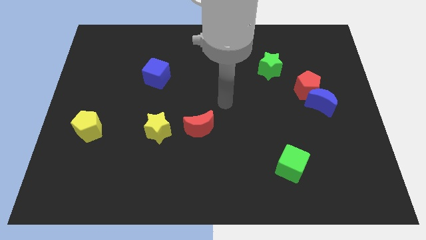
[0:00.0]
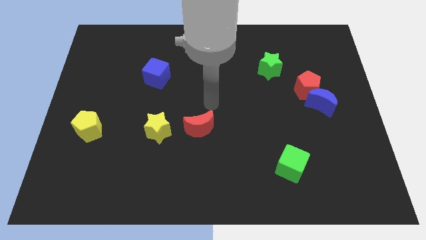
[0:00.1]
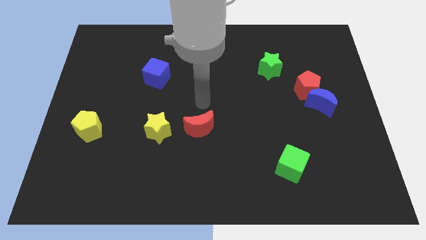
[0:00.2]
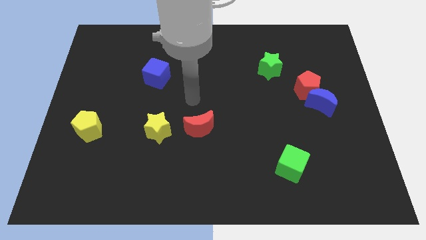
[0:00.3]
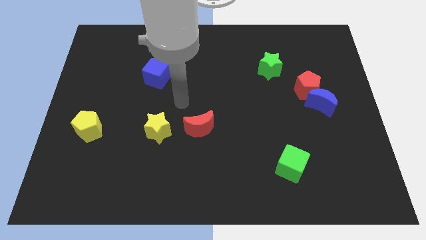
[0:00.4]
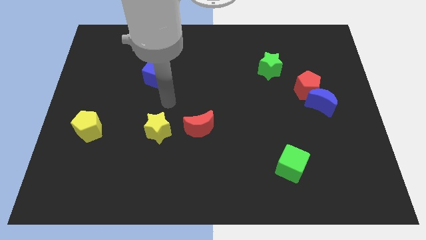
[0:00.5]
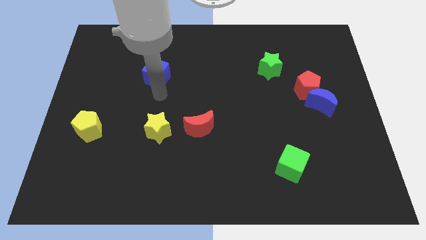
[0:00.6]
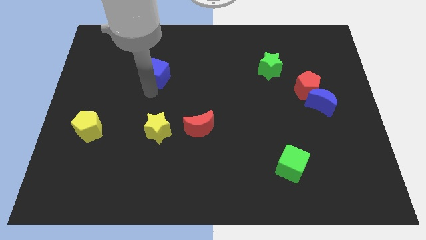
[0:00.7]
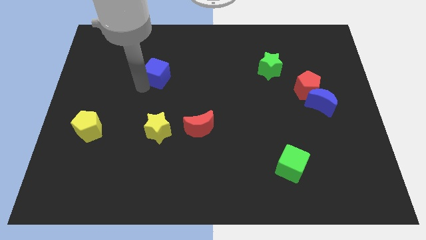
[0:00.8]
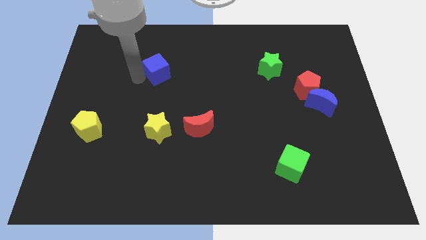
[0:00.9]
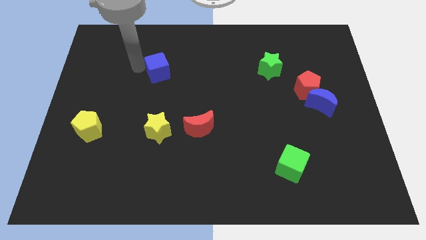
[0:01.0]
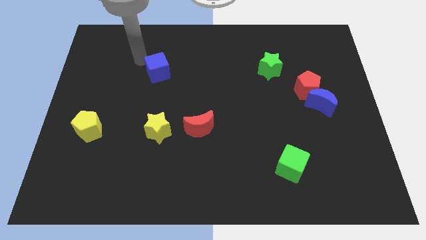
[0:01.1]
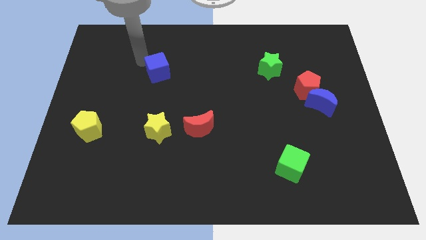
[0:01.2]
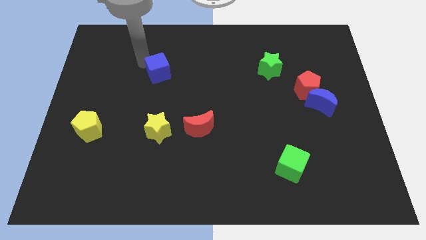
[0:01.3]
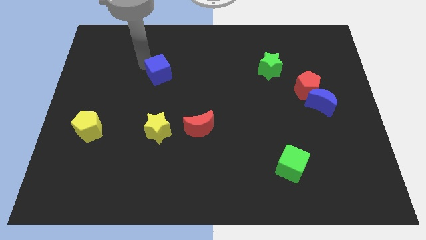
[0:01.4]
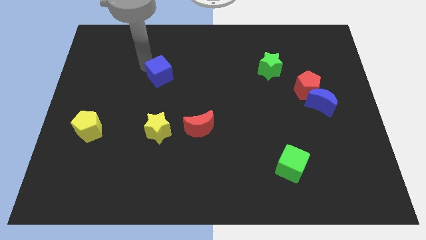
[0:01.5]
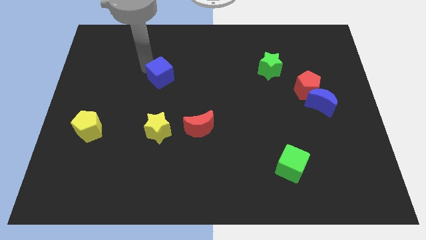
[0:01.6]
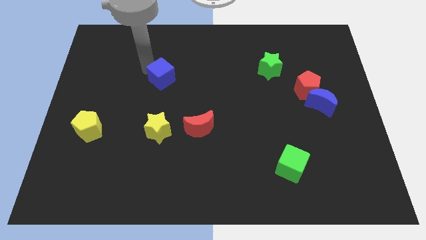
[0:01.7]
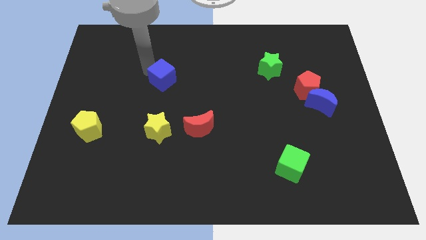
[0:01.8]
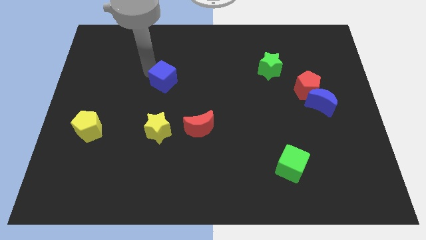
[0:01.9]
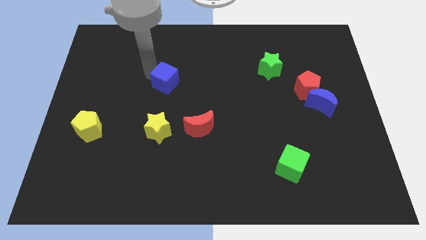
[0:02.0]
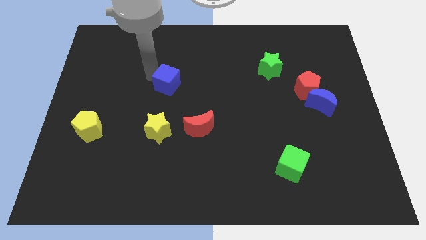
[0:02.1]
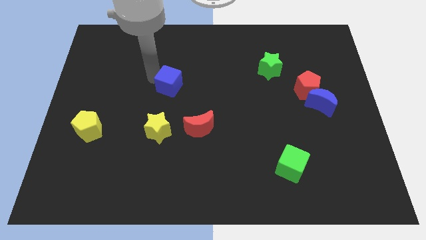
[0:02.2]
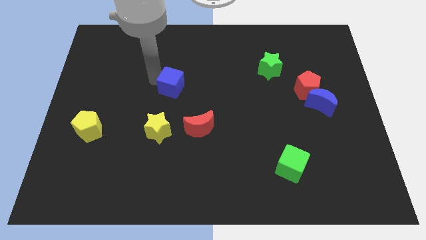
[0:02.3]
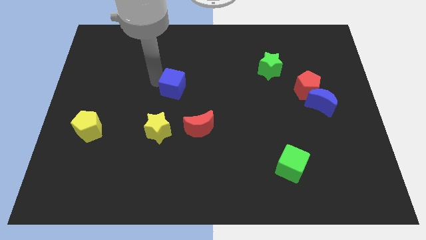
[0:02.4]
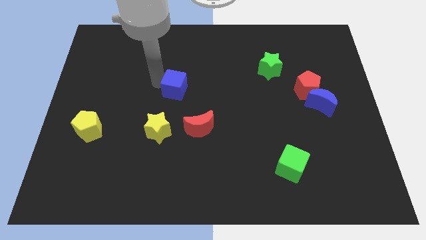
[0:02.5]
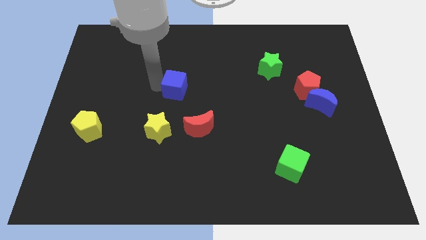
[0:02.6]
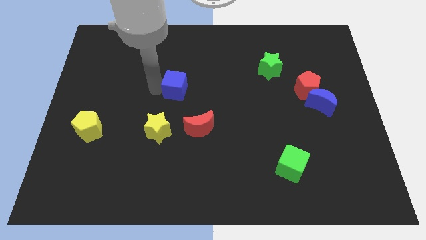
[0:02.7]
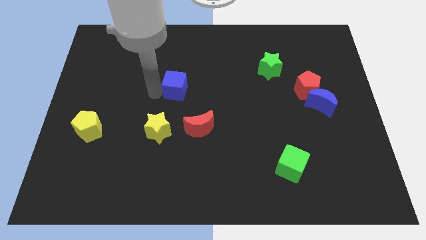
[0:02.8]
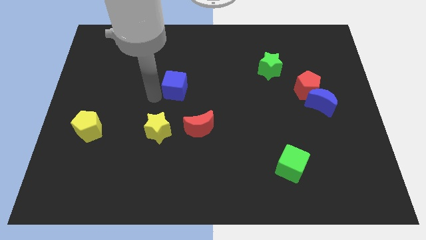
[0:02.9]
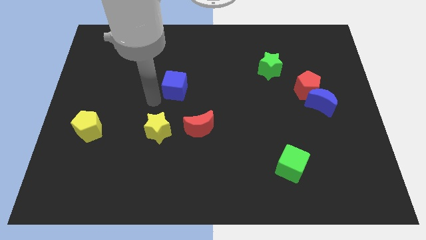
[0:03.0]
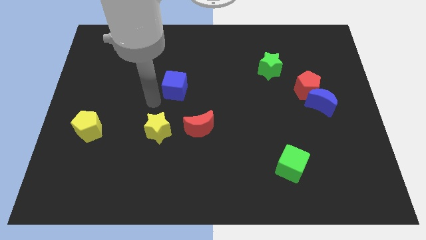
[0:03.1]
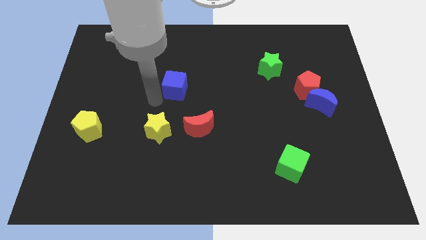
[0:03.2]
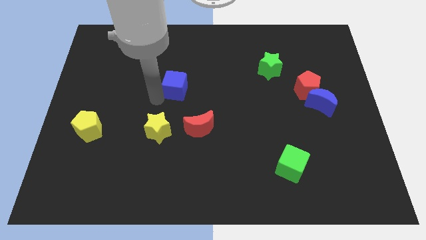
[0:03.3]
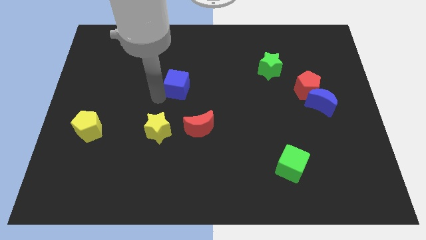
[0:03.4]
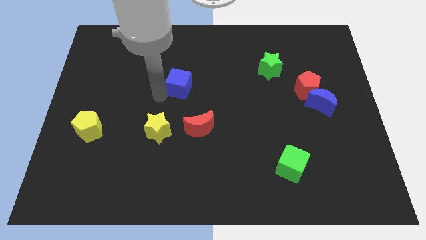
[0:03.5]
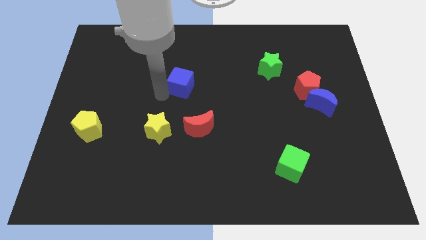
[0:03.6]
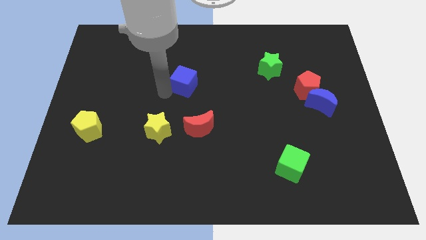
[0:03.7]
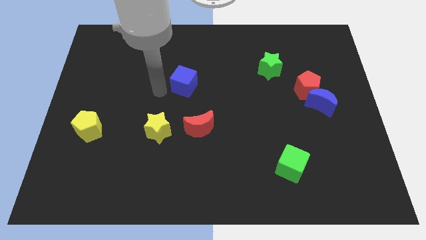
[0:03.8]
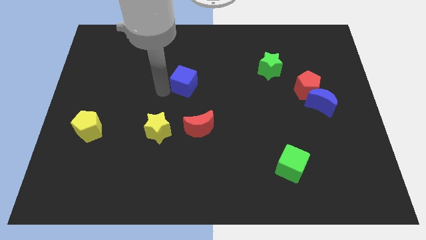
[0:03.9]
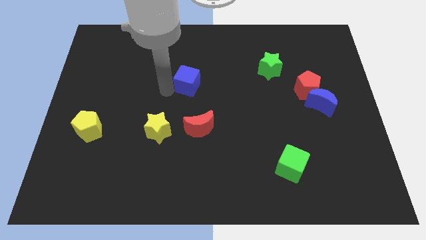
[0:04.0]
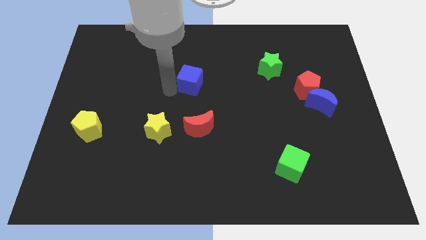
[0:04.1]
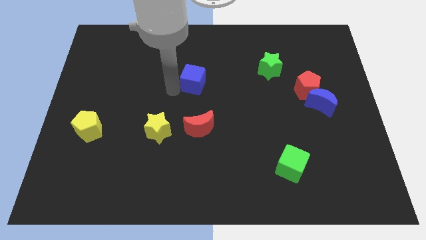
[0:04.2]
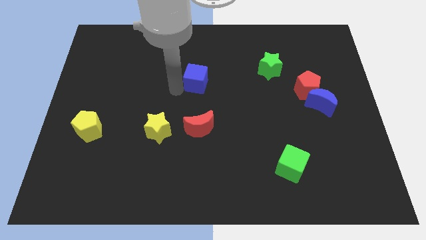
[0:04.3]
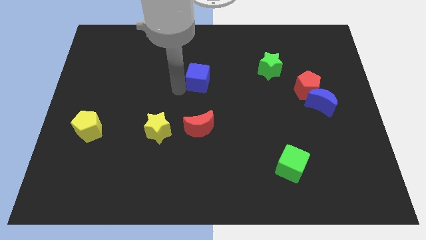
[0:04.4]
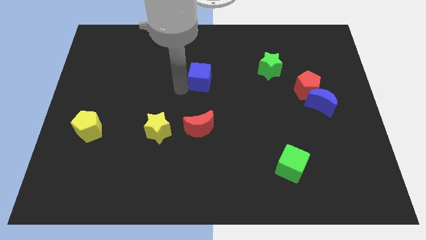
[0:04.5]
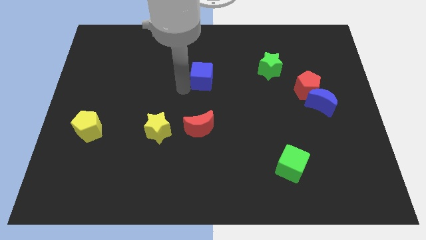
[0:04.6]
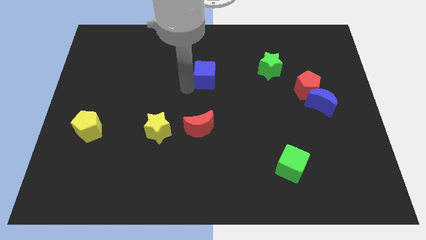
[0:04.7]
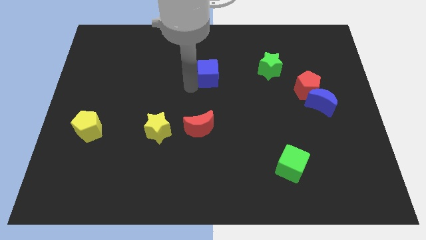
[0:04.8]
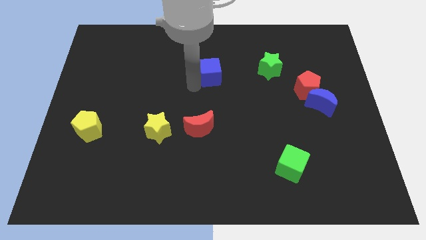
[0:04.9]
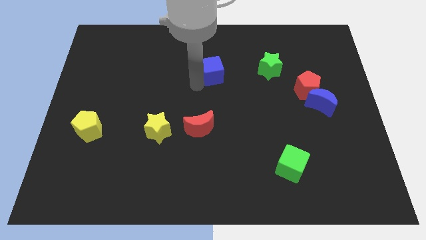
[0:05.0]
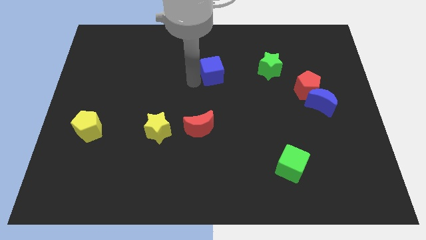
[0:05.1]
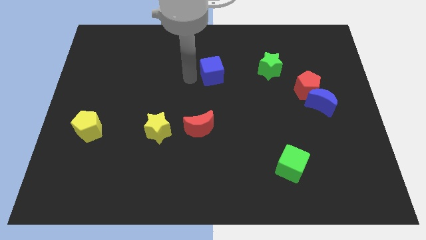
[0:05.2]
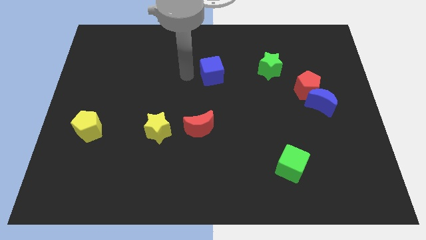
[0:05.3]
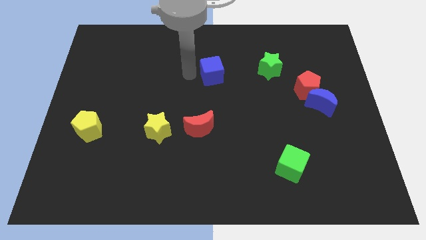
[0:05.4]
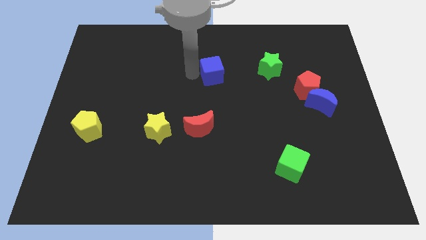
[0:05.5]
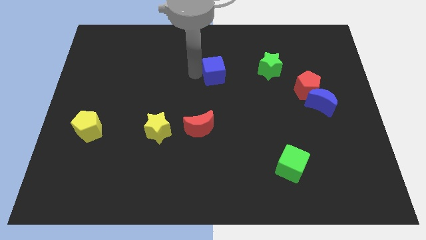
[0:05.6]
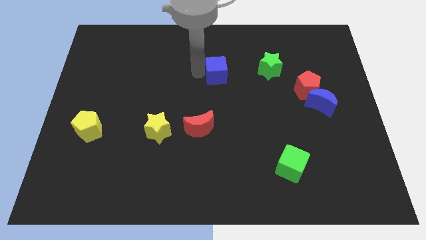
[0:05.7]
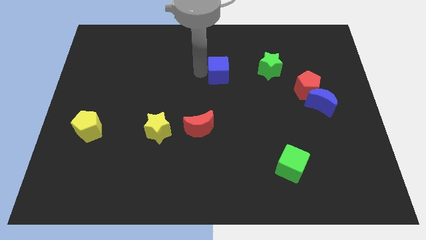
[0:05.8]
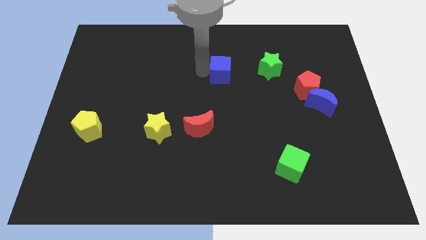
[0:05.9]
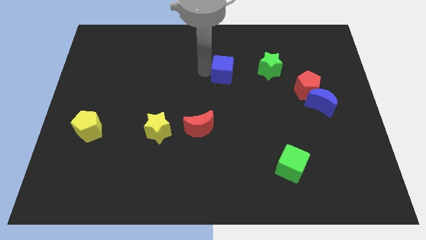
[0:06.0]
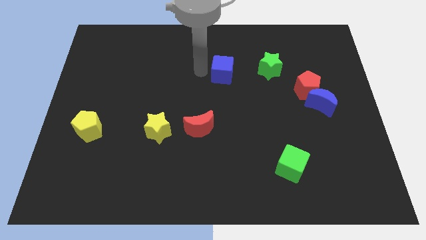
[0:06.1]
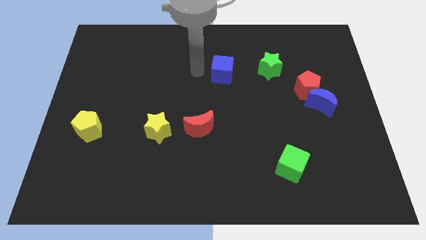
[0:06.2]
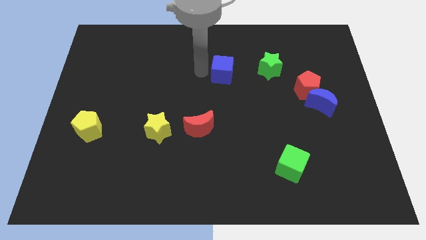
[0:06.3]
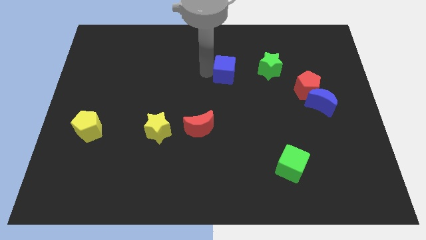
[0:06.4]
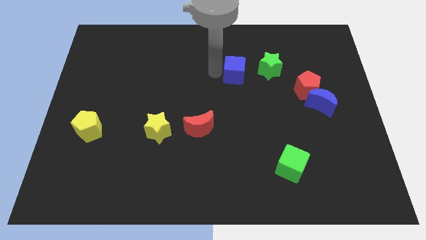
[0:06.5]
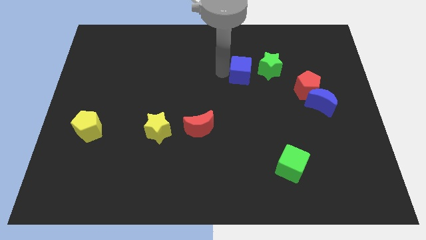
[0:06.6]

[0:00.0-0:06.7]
push the blue cube right

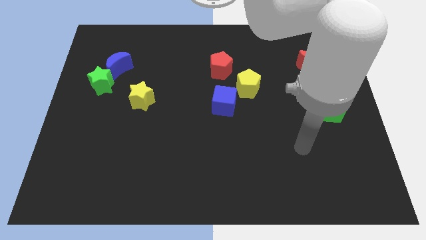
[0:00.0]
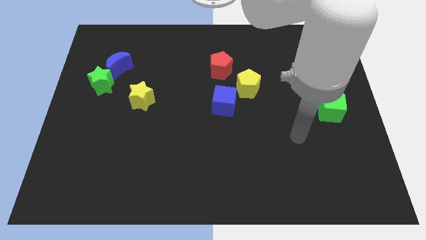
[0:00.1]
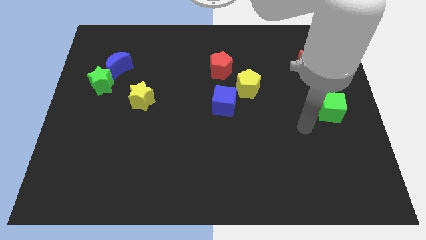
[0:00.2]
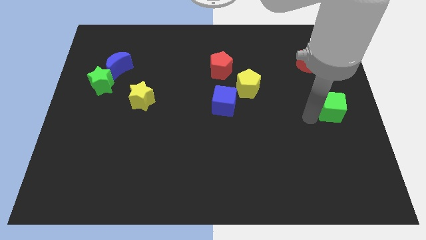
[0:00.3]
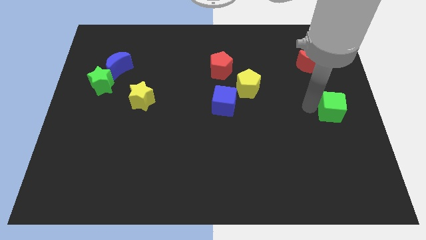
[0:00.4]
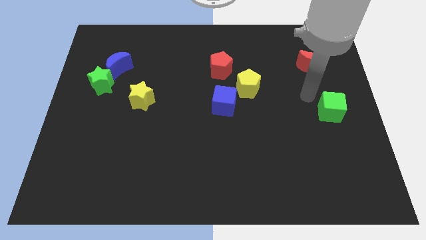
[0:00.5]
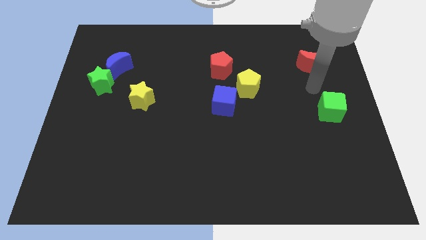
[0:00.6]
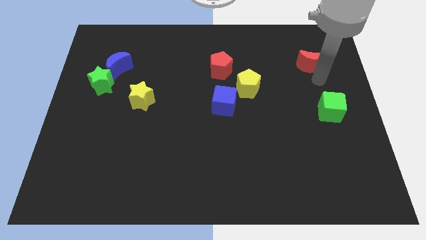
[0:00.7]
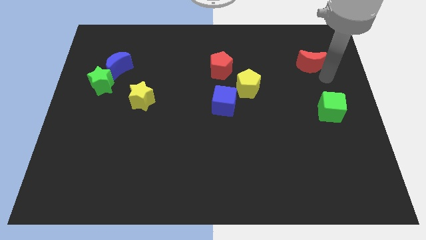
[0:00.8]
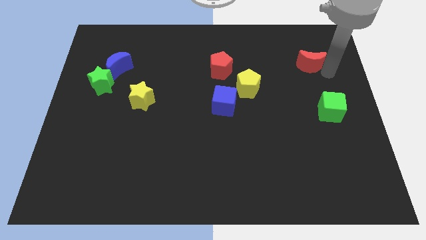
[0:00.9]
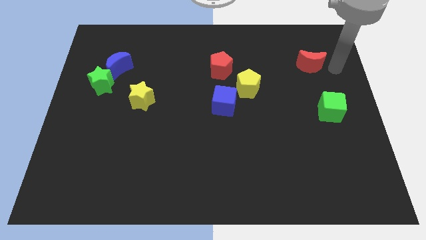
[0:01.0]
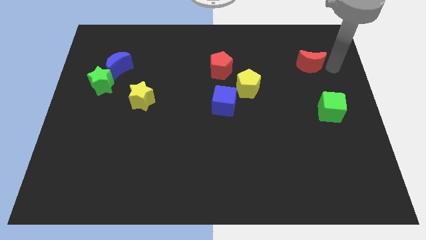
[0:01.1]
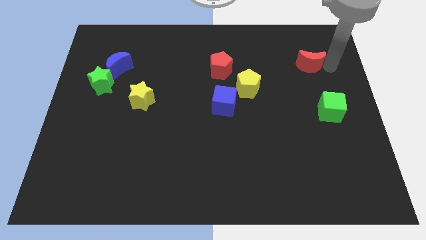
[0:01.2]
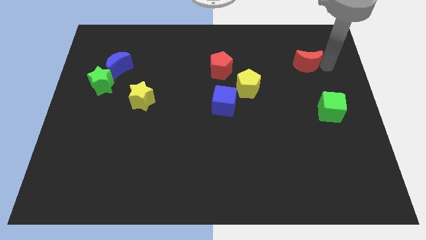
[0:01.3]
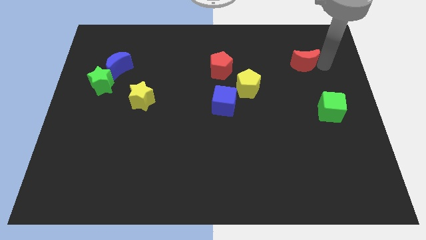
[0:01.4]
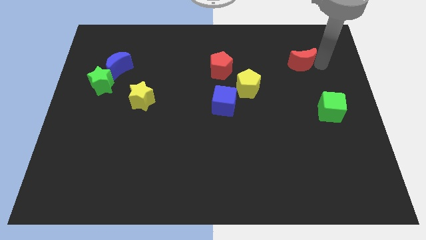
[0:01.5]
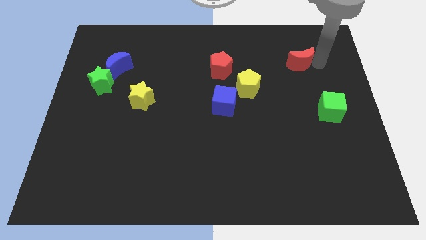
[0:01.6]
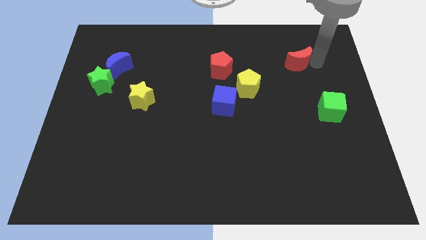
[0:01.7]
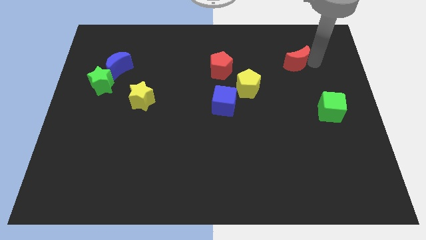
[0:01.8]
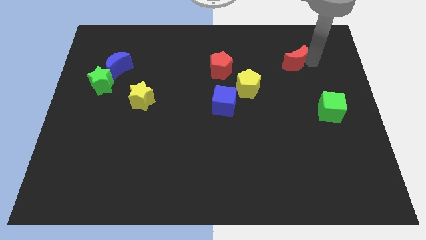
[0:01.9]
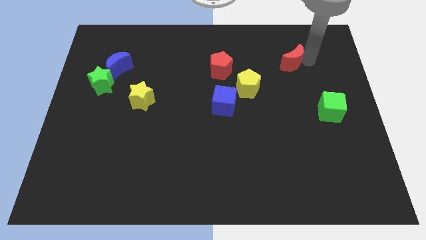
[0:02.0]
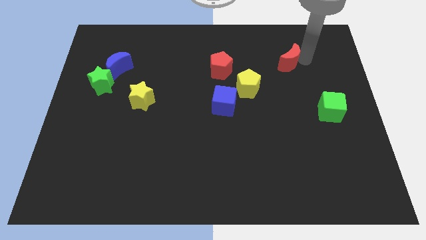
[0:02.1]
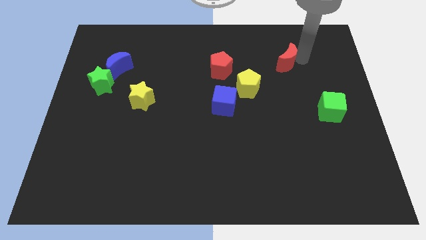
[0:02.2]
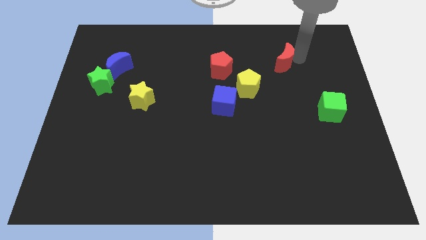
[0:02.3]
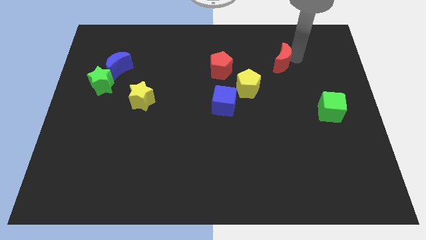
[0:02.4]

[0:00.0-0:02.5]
slide the red moon left a bit
